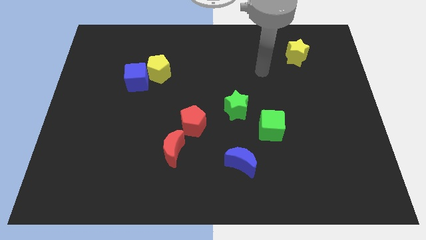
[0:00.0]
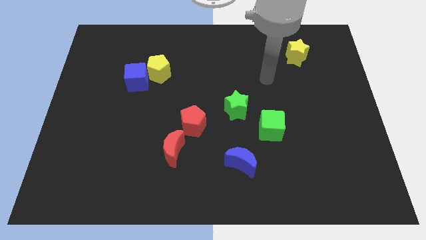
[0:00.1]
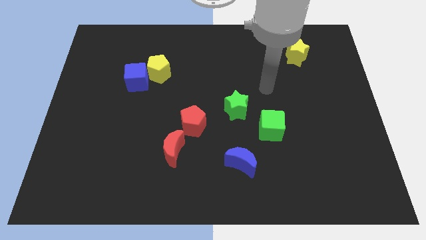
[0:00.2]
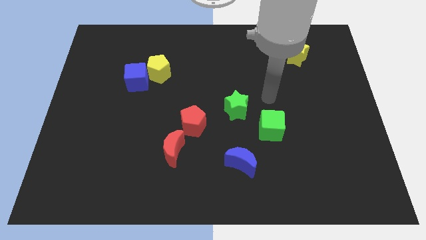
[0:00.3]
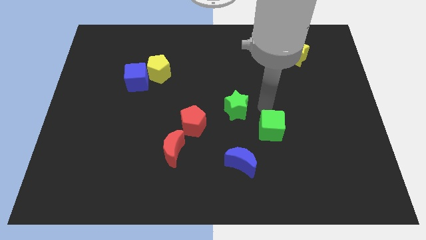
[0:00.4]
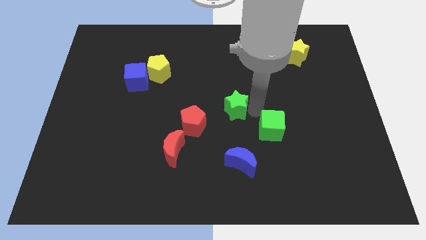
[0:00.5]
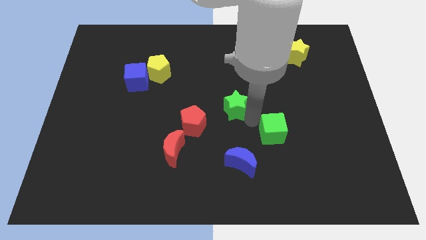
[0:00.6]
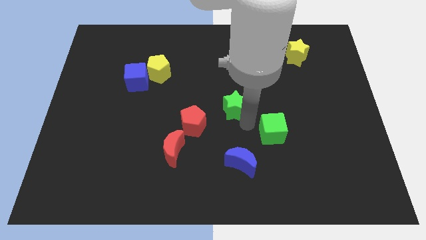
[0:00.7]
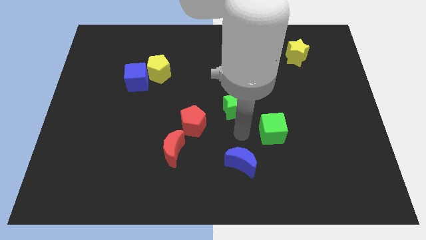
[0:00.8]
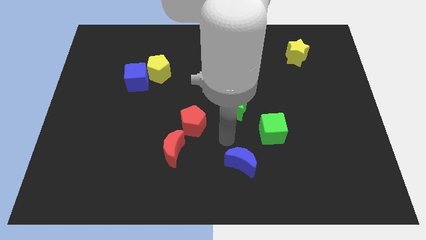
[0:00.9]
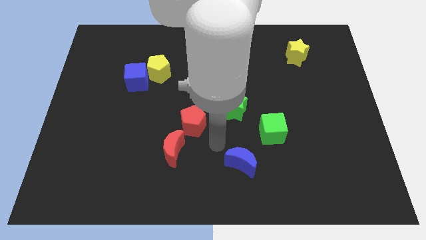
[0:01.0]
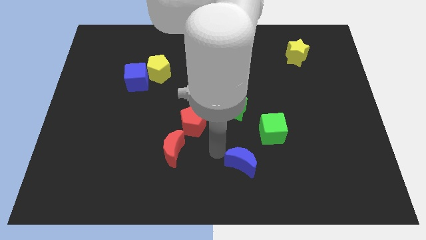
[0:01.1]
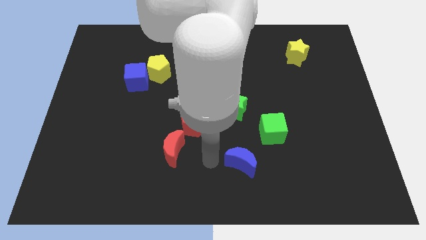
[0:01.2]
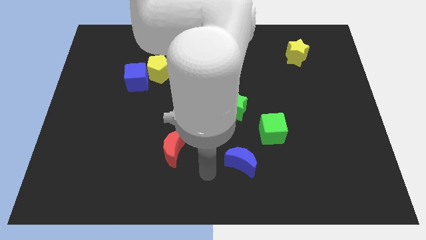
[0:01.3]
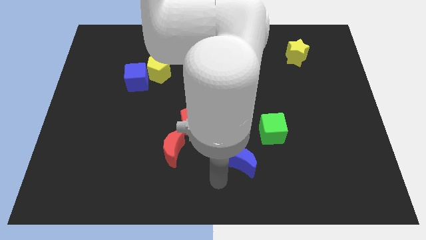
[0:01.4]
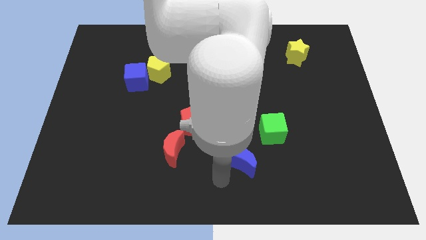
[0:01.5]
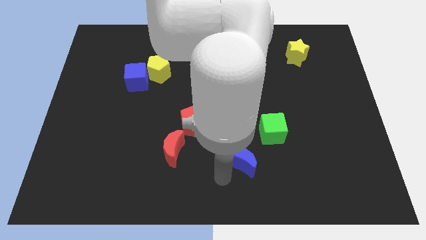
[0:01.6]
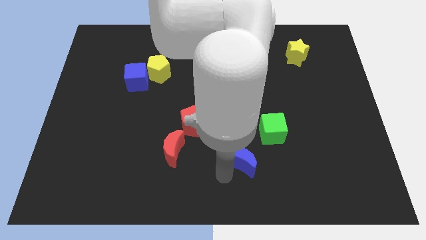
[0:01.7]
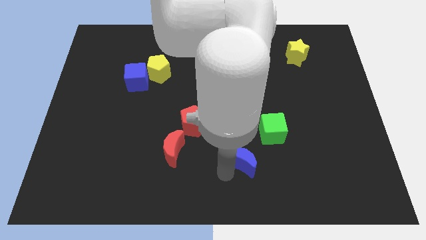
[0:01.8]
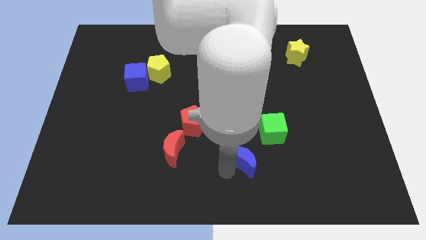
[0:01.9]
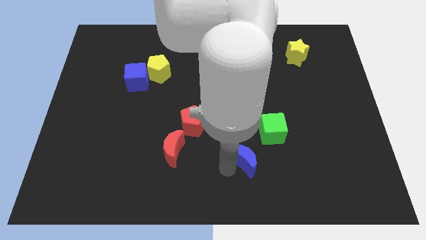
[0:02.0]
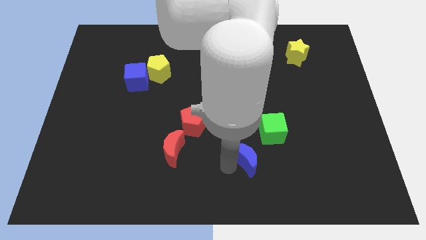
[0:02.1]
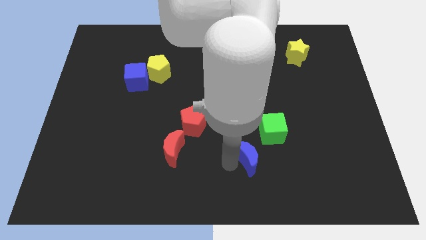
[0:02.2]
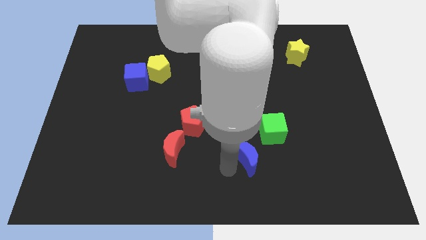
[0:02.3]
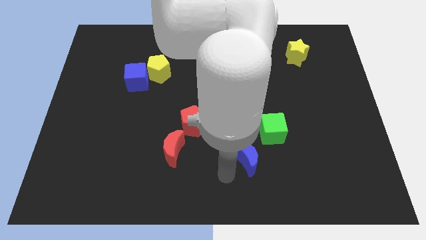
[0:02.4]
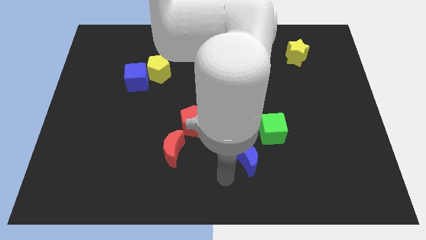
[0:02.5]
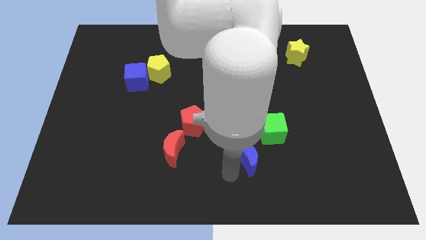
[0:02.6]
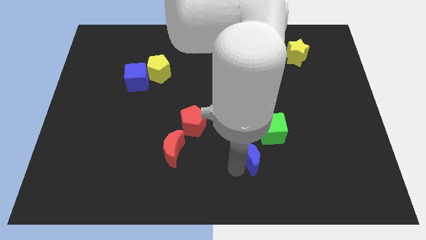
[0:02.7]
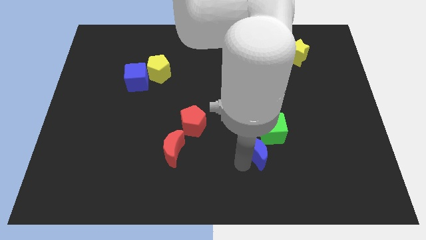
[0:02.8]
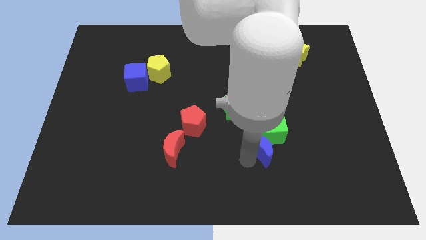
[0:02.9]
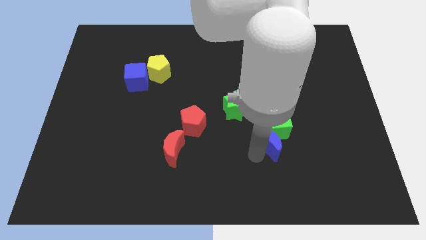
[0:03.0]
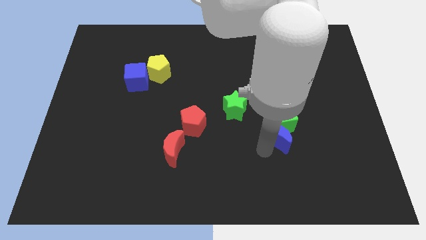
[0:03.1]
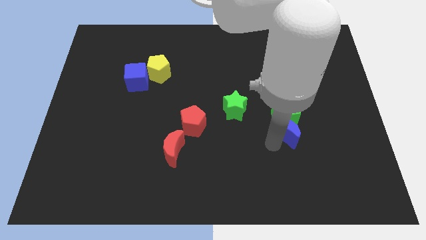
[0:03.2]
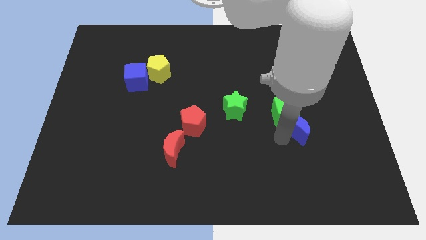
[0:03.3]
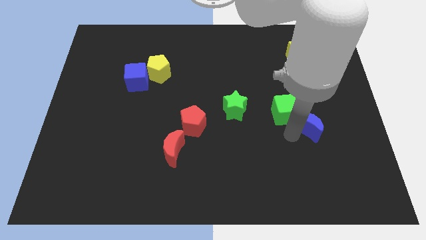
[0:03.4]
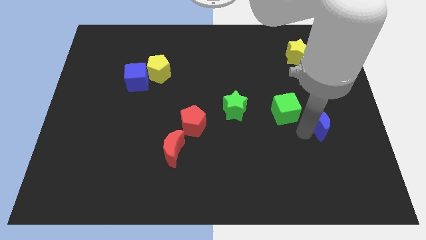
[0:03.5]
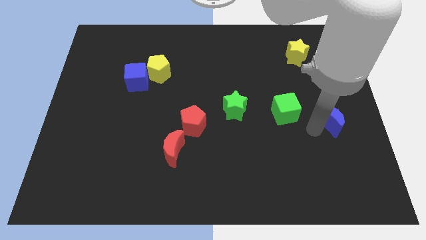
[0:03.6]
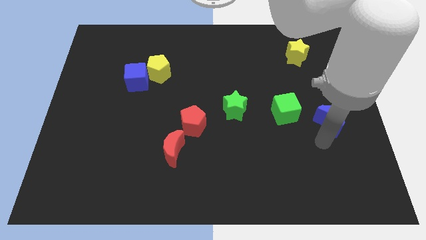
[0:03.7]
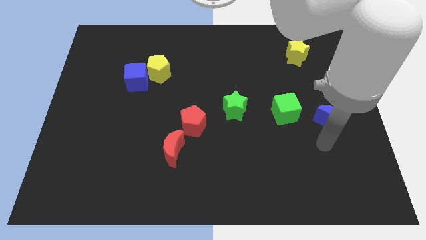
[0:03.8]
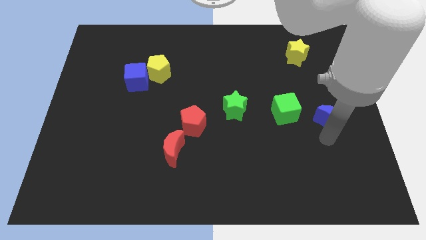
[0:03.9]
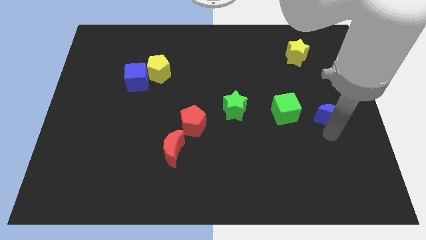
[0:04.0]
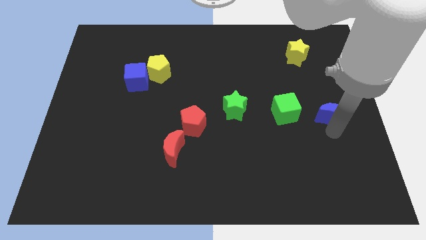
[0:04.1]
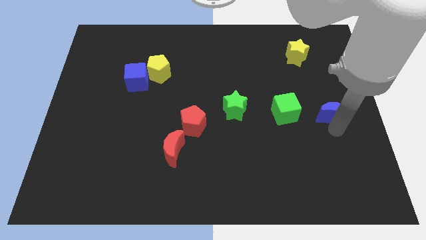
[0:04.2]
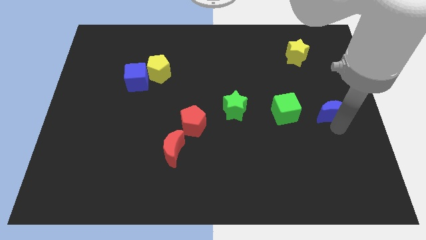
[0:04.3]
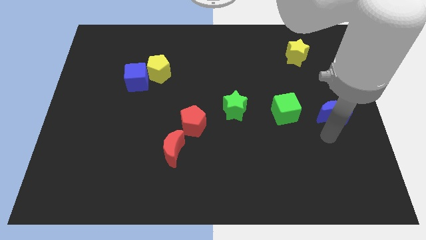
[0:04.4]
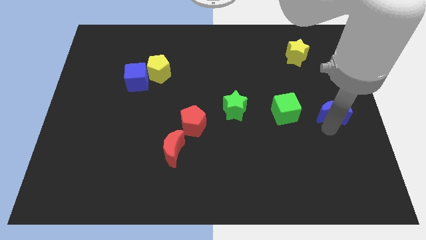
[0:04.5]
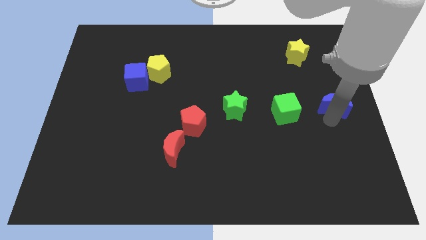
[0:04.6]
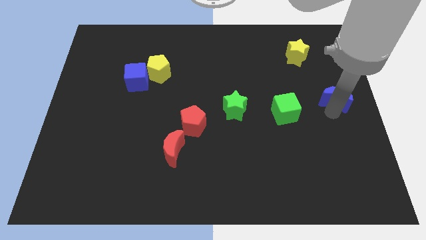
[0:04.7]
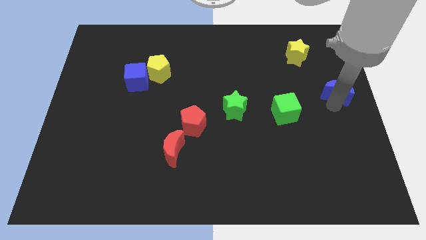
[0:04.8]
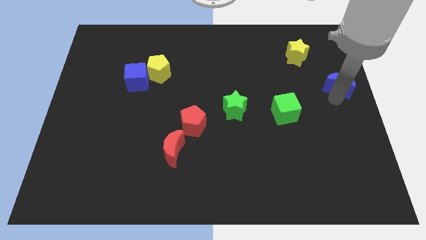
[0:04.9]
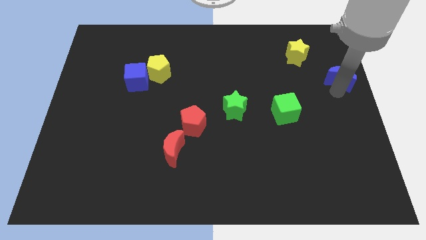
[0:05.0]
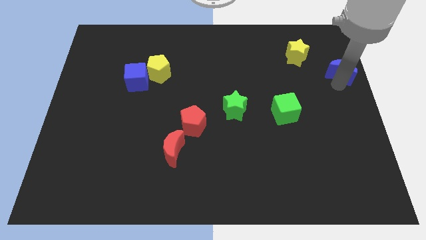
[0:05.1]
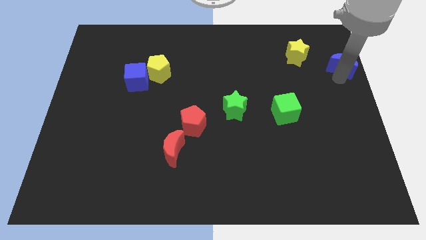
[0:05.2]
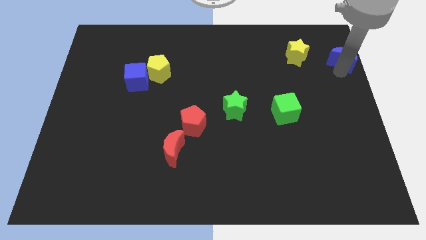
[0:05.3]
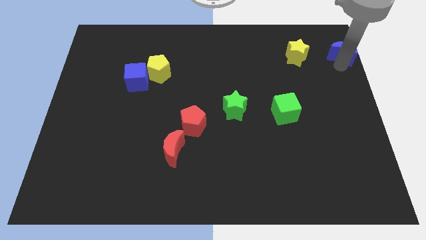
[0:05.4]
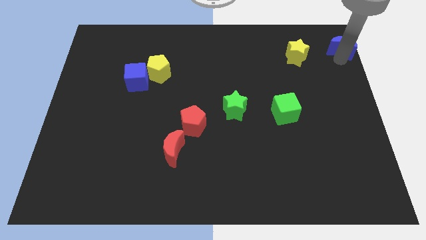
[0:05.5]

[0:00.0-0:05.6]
push the blue moon to the top right of the board

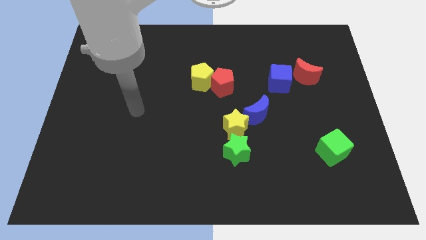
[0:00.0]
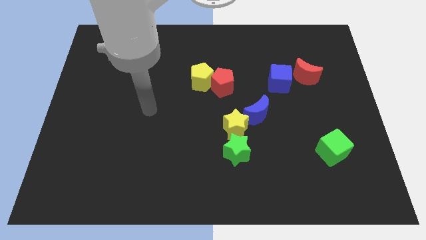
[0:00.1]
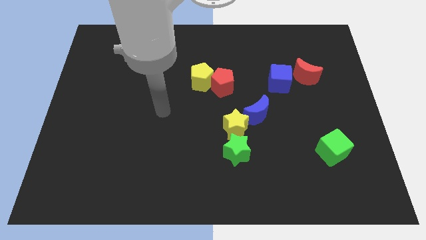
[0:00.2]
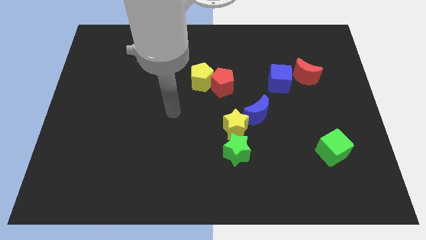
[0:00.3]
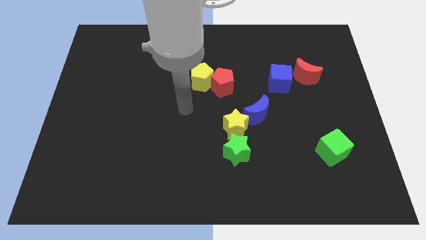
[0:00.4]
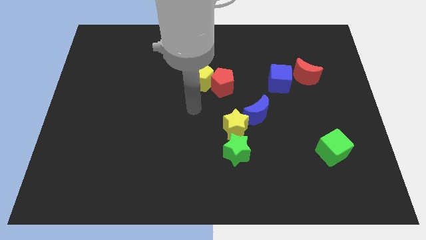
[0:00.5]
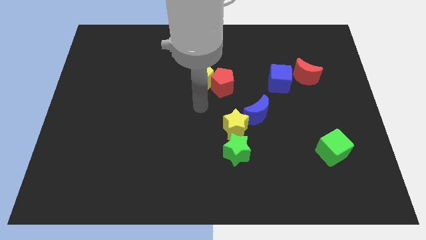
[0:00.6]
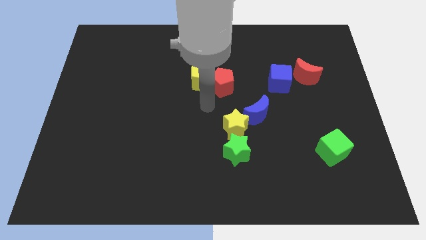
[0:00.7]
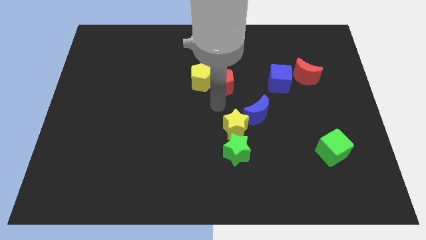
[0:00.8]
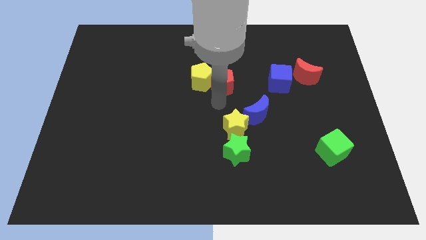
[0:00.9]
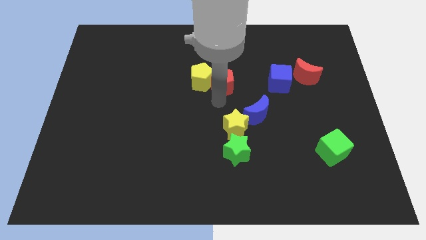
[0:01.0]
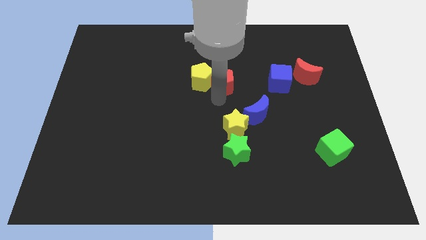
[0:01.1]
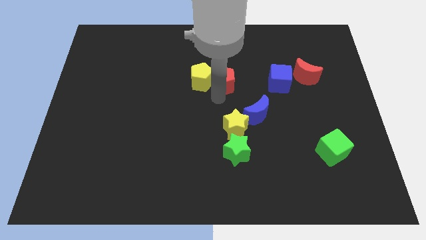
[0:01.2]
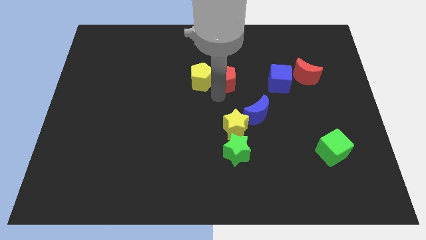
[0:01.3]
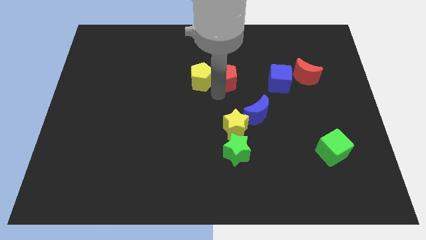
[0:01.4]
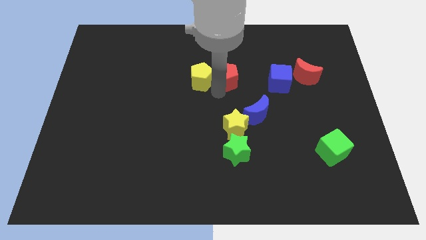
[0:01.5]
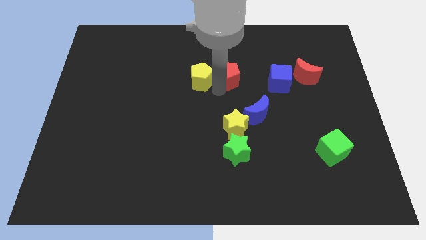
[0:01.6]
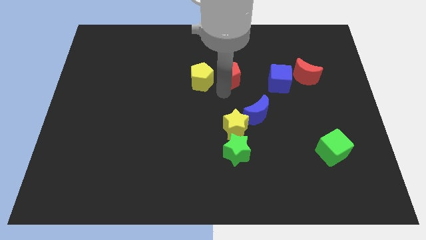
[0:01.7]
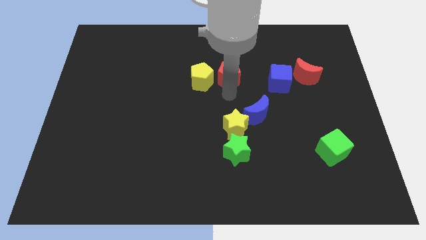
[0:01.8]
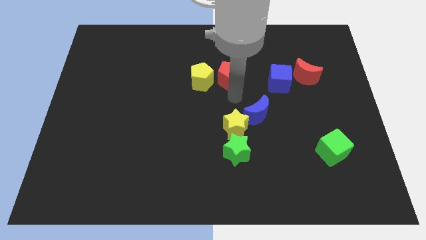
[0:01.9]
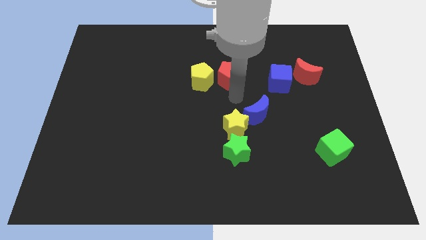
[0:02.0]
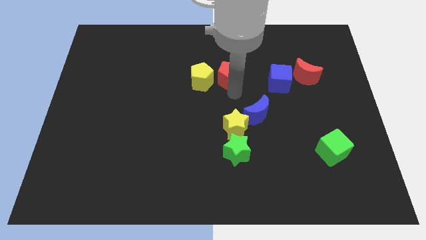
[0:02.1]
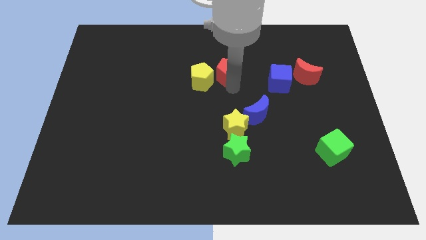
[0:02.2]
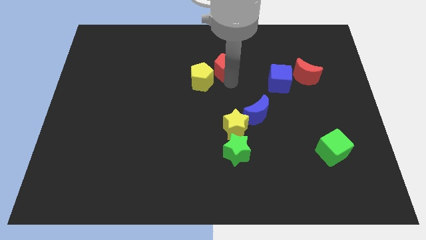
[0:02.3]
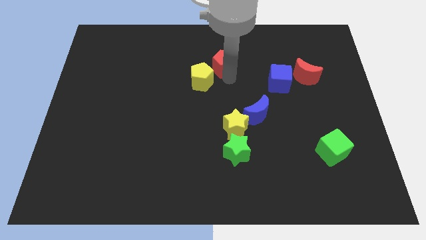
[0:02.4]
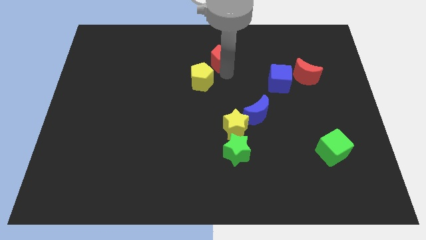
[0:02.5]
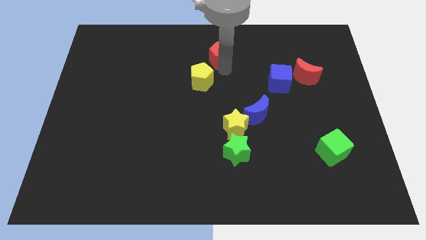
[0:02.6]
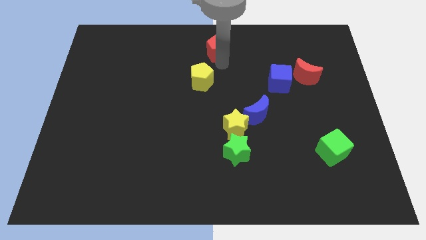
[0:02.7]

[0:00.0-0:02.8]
put the red pentagon to the top side
